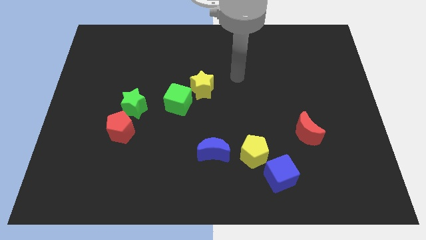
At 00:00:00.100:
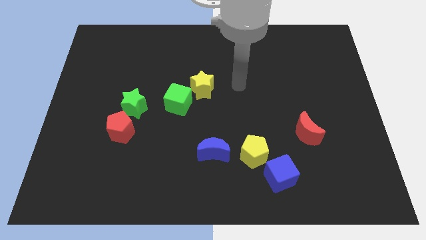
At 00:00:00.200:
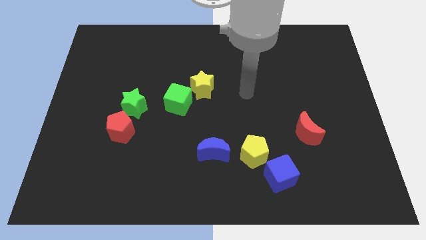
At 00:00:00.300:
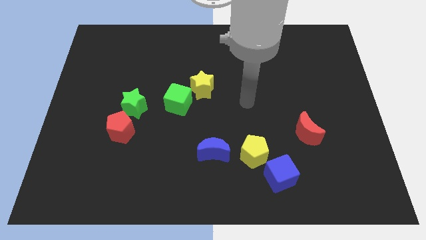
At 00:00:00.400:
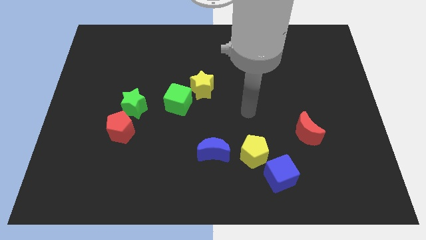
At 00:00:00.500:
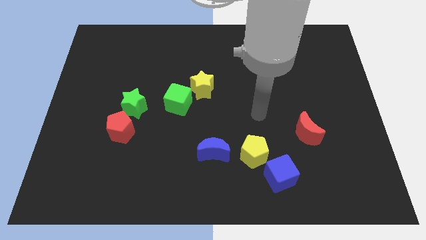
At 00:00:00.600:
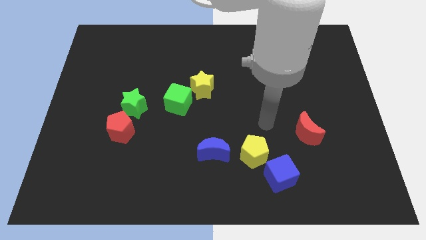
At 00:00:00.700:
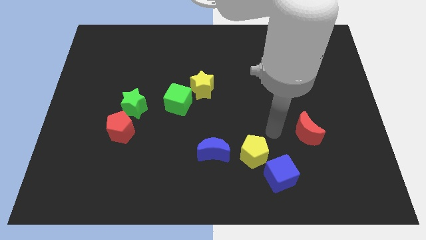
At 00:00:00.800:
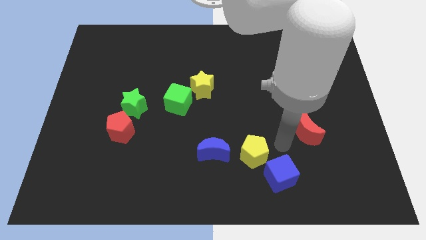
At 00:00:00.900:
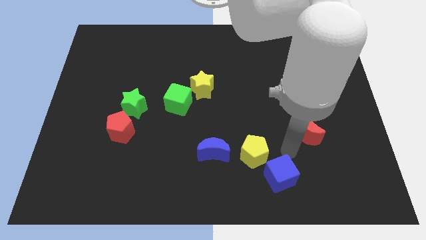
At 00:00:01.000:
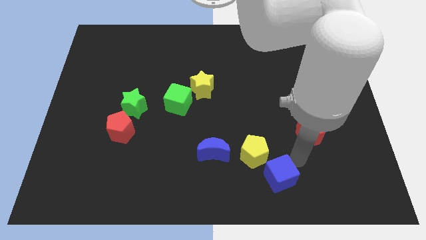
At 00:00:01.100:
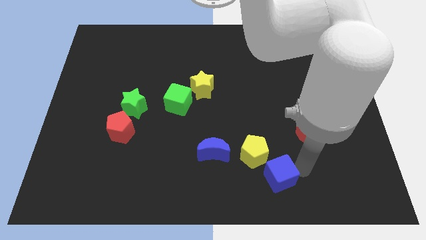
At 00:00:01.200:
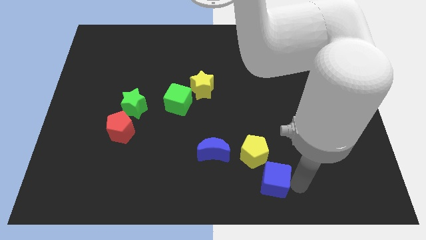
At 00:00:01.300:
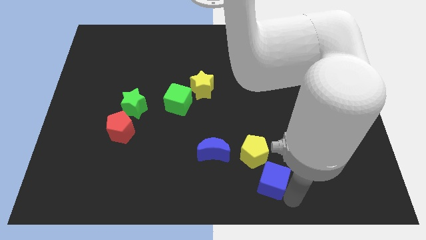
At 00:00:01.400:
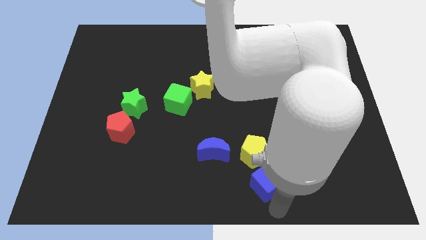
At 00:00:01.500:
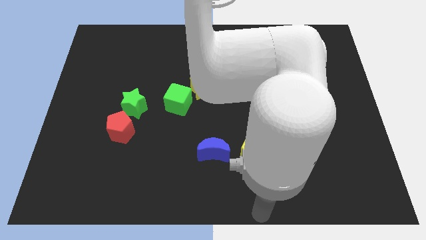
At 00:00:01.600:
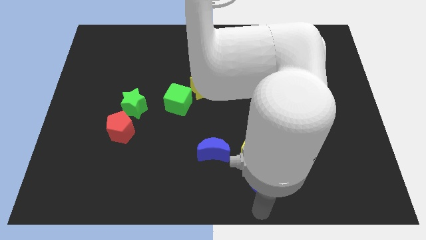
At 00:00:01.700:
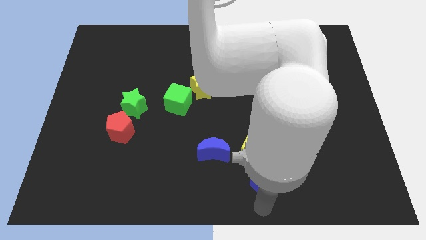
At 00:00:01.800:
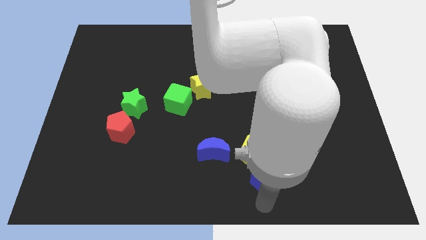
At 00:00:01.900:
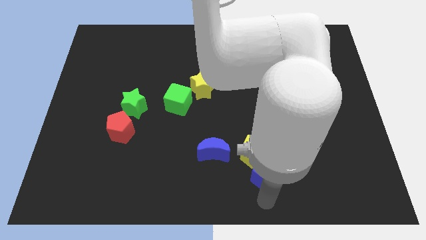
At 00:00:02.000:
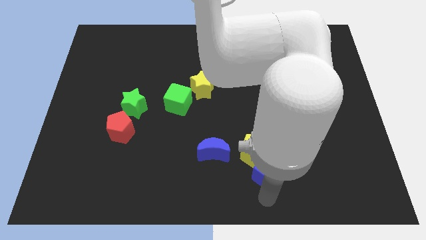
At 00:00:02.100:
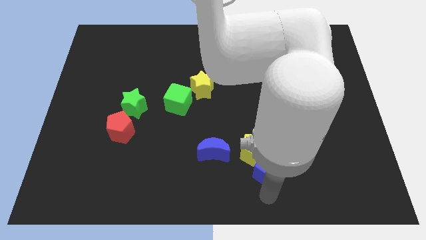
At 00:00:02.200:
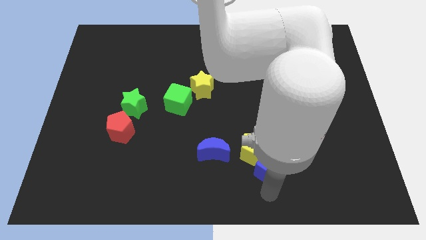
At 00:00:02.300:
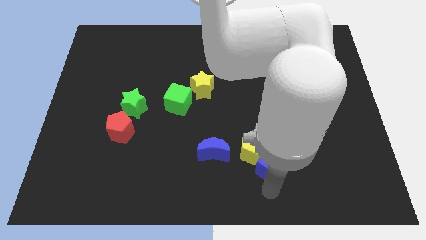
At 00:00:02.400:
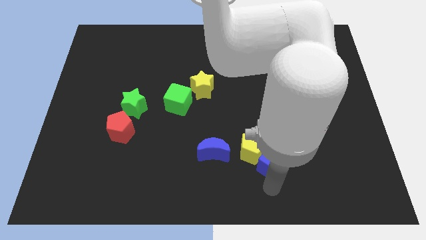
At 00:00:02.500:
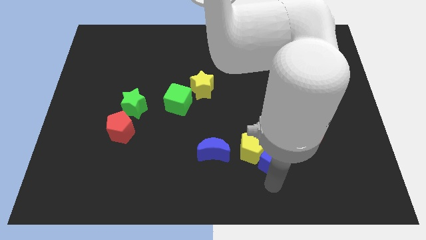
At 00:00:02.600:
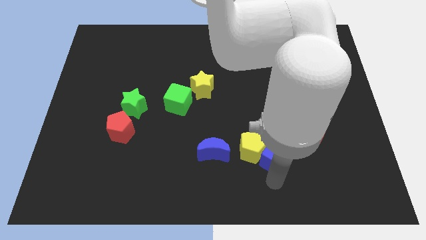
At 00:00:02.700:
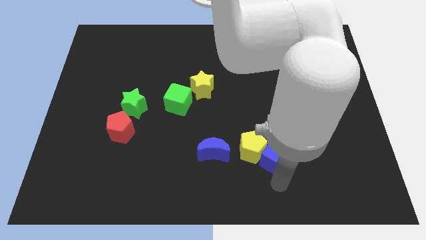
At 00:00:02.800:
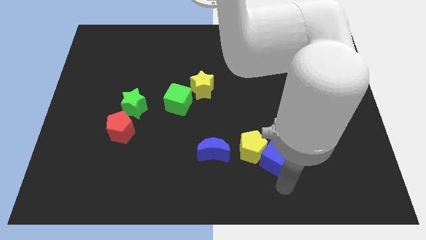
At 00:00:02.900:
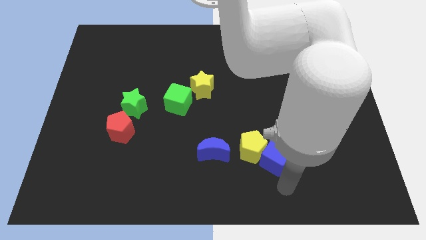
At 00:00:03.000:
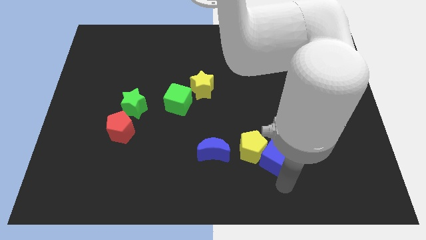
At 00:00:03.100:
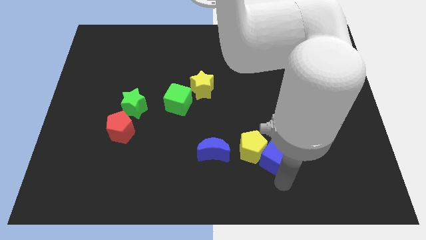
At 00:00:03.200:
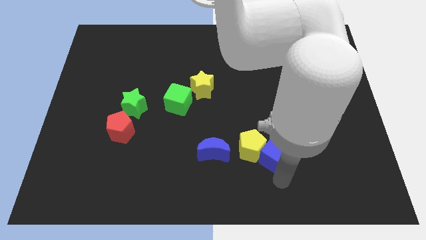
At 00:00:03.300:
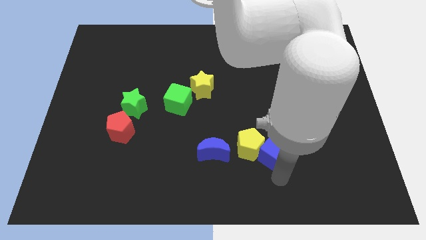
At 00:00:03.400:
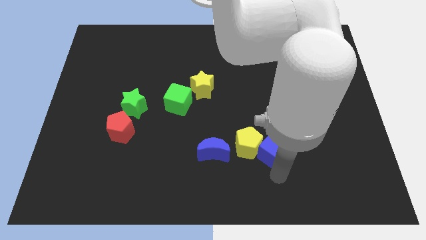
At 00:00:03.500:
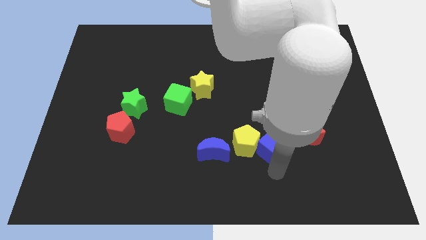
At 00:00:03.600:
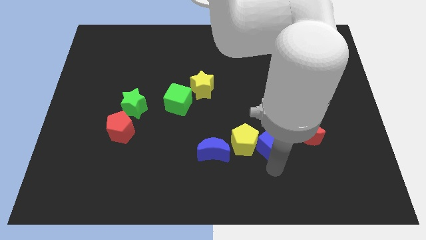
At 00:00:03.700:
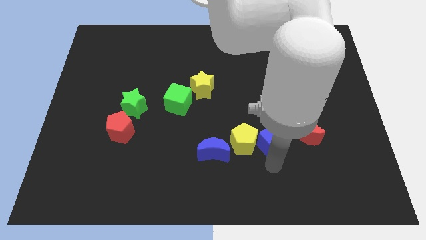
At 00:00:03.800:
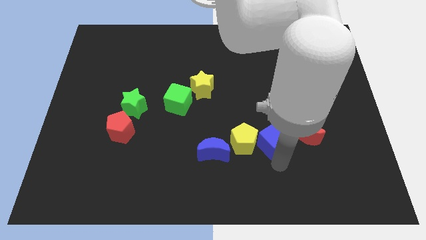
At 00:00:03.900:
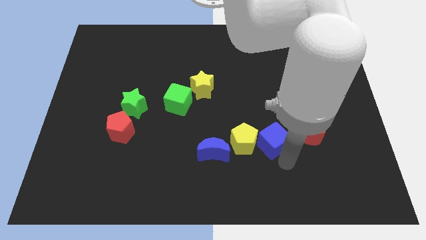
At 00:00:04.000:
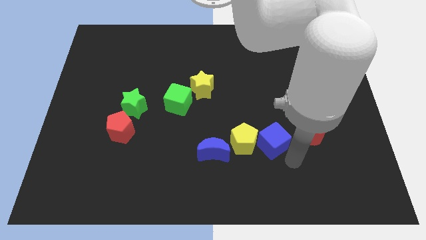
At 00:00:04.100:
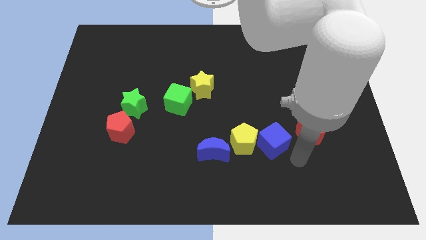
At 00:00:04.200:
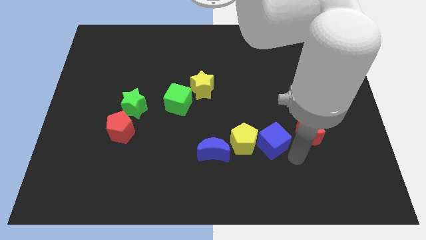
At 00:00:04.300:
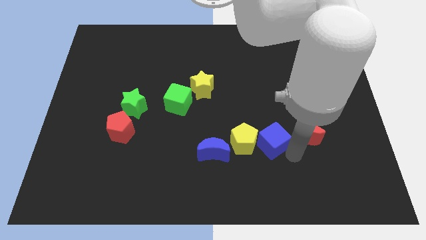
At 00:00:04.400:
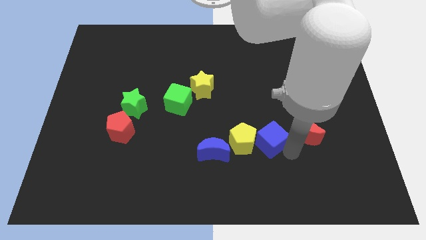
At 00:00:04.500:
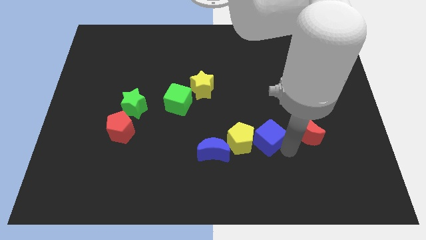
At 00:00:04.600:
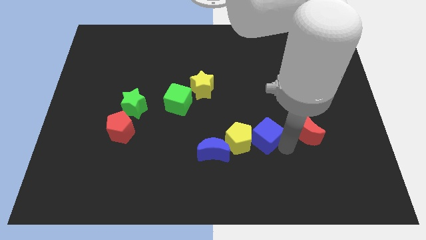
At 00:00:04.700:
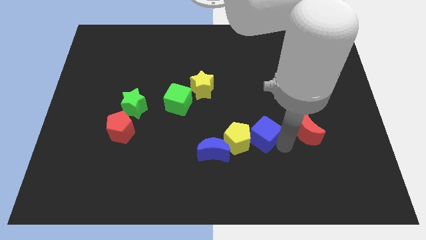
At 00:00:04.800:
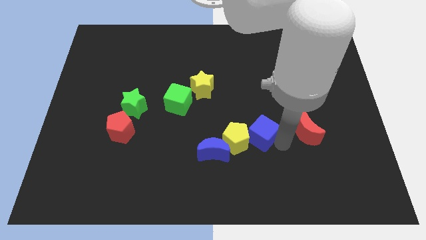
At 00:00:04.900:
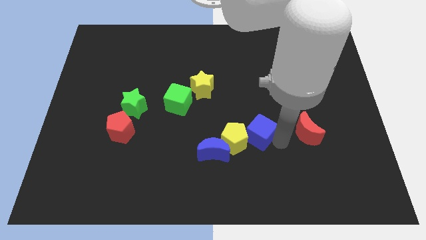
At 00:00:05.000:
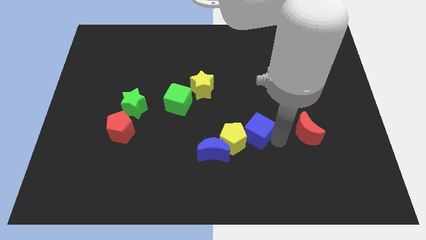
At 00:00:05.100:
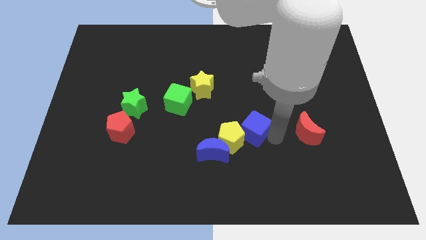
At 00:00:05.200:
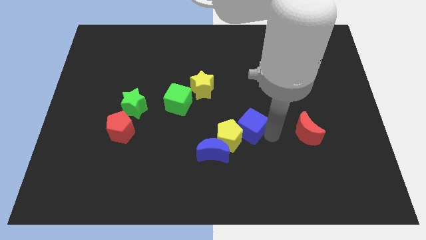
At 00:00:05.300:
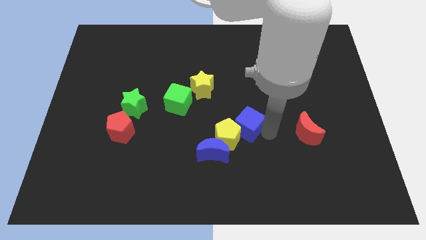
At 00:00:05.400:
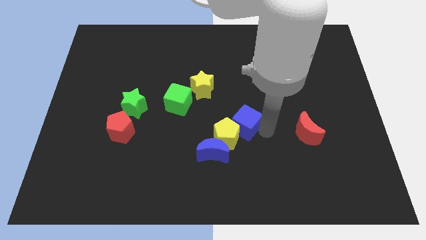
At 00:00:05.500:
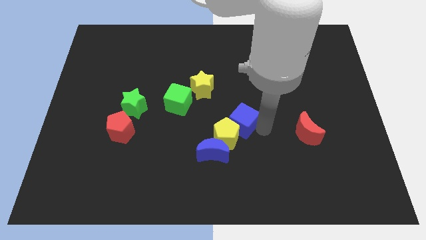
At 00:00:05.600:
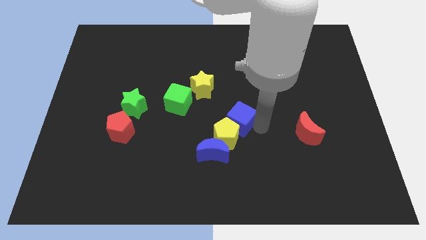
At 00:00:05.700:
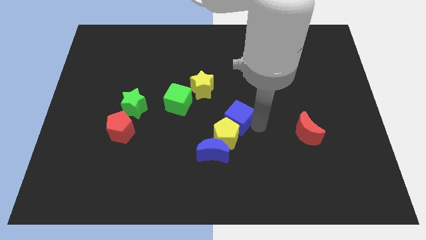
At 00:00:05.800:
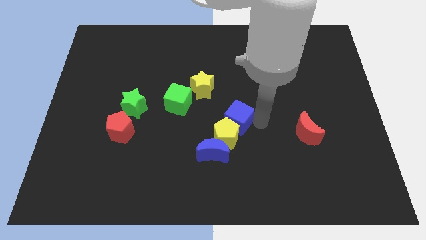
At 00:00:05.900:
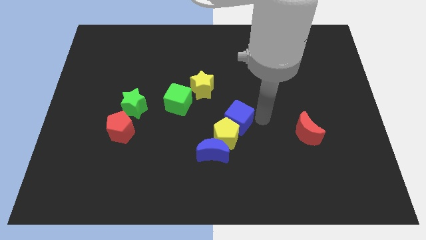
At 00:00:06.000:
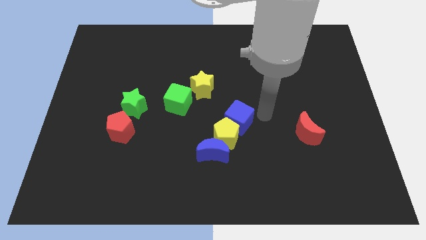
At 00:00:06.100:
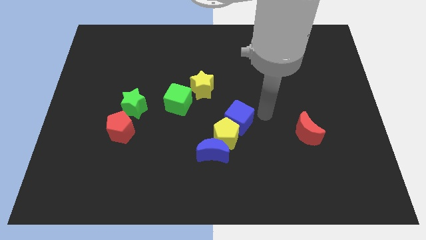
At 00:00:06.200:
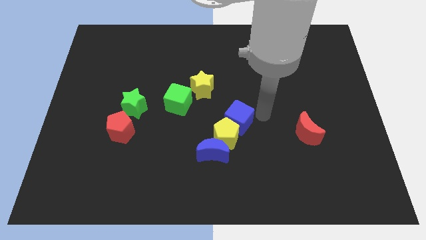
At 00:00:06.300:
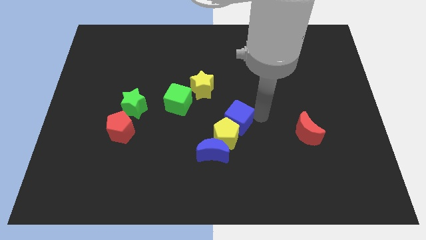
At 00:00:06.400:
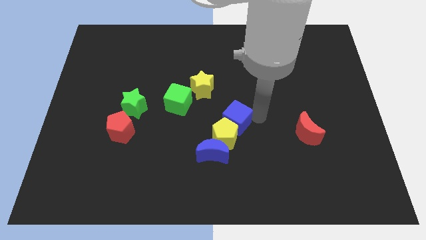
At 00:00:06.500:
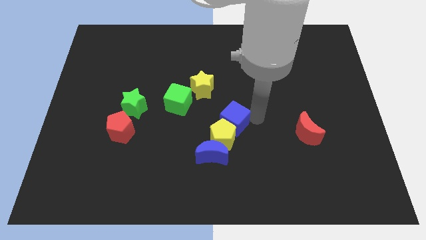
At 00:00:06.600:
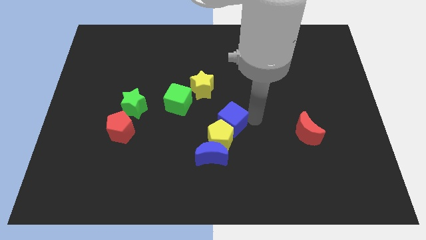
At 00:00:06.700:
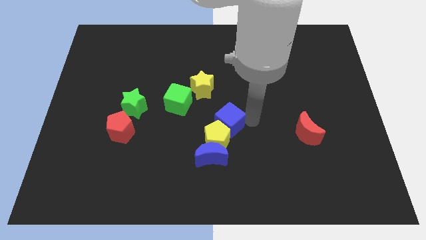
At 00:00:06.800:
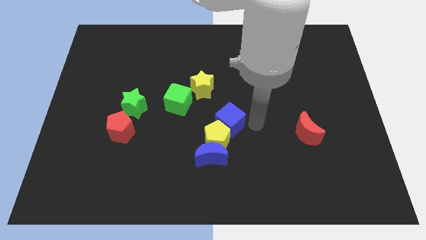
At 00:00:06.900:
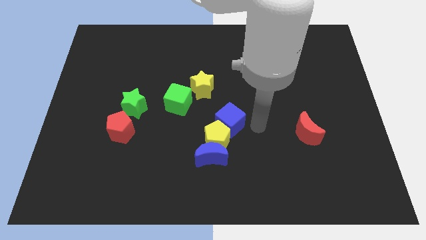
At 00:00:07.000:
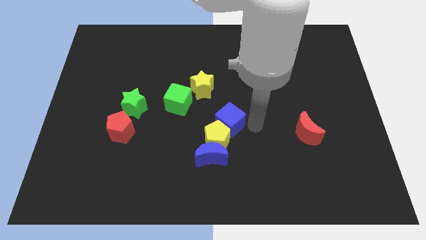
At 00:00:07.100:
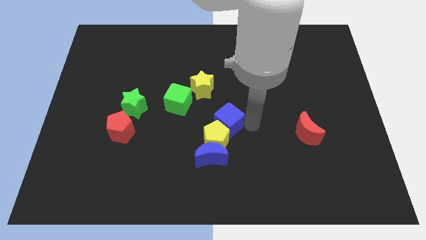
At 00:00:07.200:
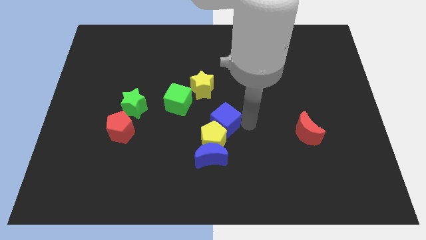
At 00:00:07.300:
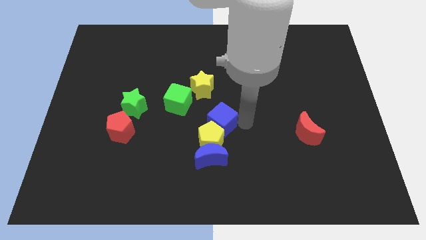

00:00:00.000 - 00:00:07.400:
move the blue cube diagonally down and to the right of the green cube

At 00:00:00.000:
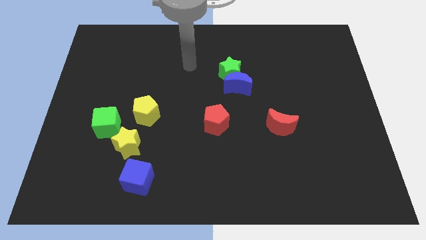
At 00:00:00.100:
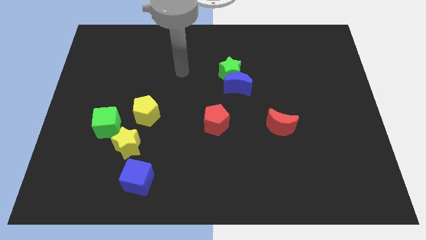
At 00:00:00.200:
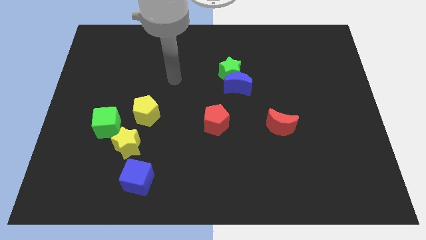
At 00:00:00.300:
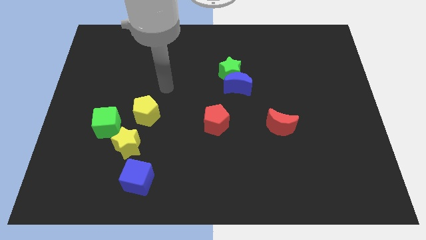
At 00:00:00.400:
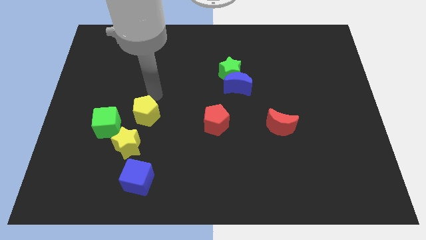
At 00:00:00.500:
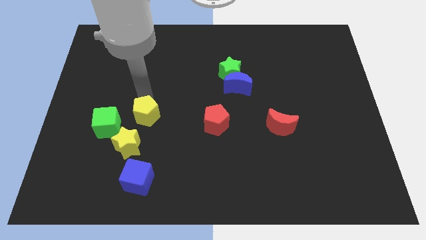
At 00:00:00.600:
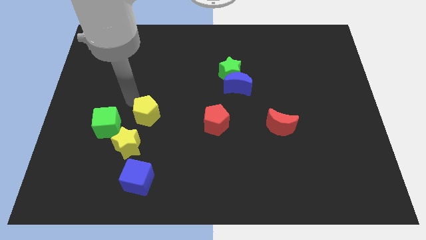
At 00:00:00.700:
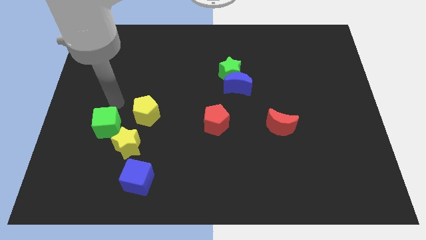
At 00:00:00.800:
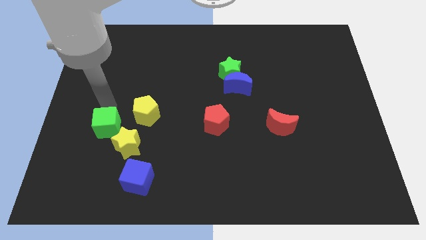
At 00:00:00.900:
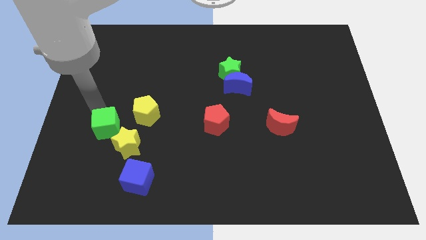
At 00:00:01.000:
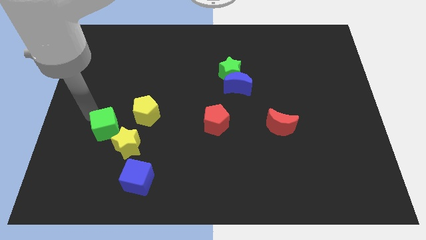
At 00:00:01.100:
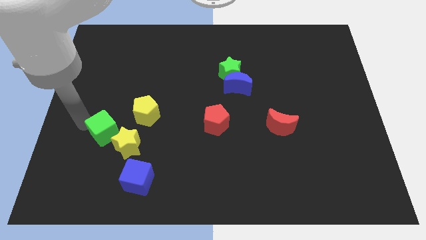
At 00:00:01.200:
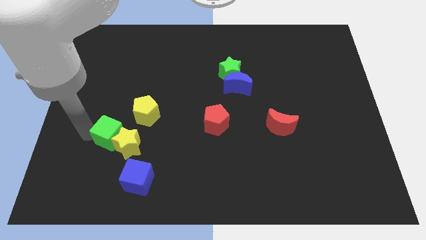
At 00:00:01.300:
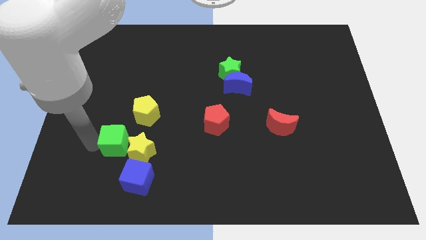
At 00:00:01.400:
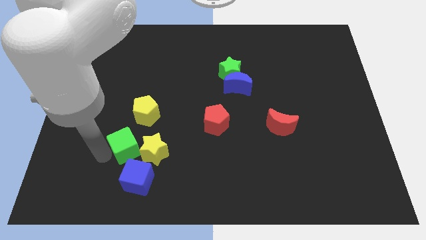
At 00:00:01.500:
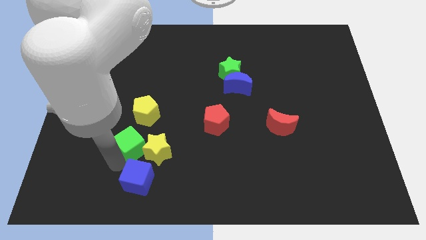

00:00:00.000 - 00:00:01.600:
slide the yellow star to the bottom right side of the yellow pentagon
